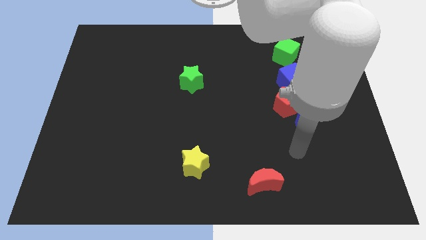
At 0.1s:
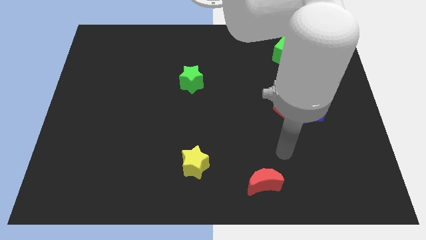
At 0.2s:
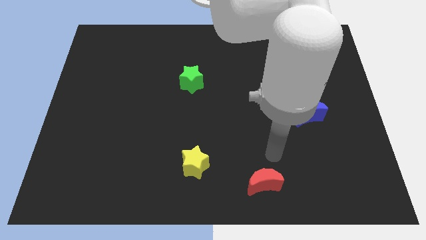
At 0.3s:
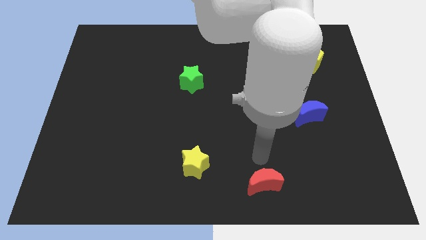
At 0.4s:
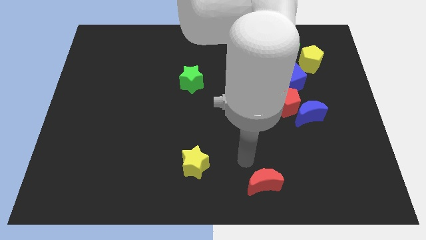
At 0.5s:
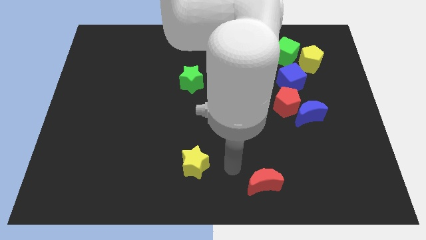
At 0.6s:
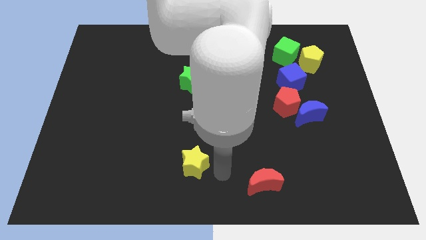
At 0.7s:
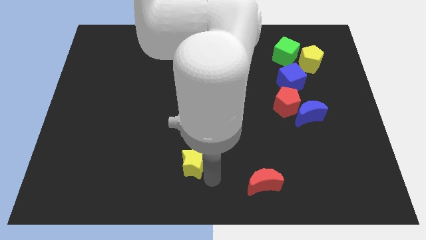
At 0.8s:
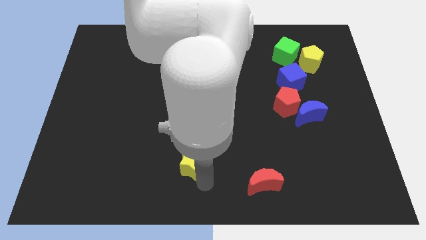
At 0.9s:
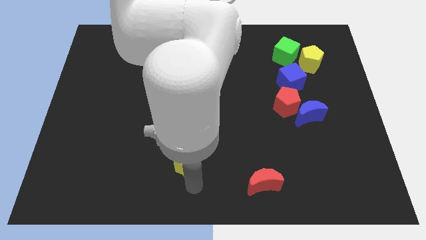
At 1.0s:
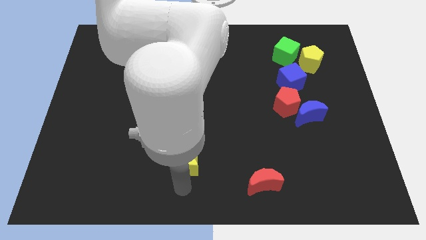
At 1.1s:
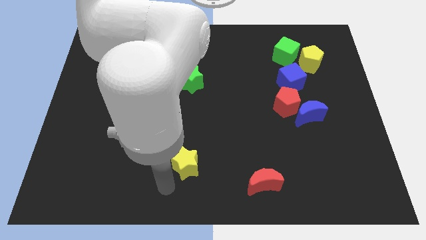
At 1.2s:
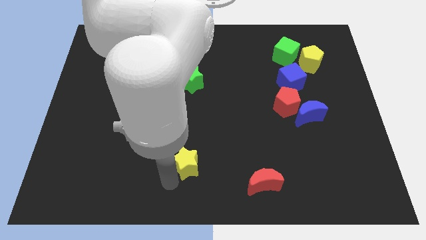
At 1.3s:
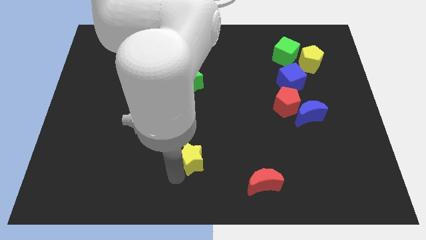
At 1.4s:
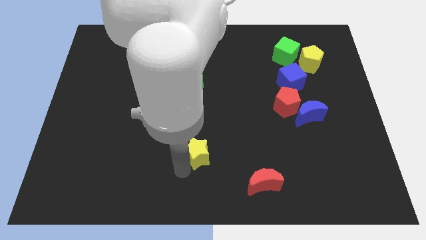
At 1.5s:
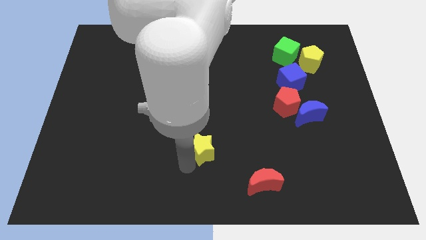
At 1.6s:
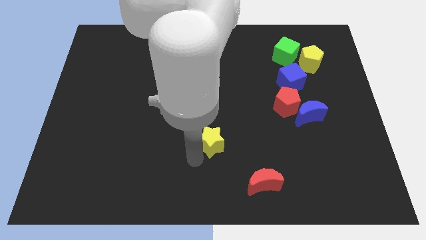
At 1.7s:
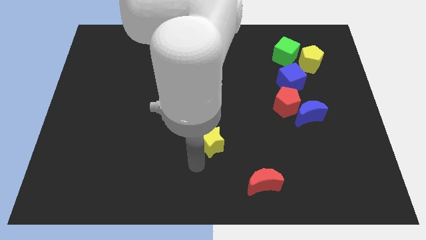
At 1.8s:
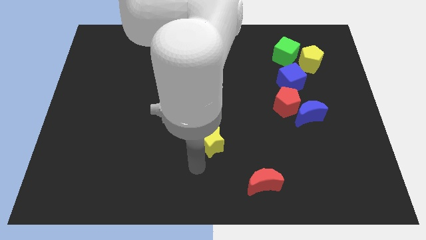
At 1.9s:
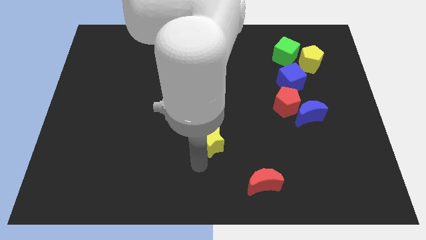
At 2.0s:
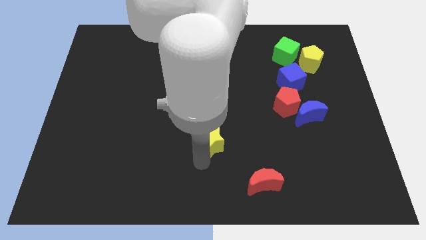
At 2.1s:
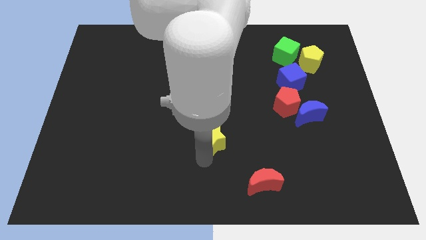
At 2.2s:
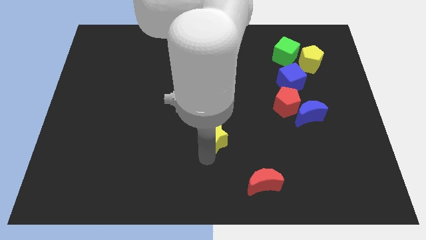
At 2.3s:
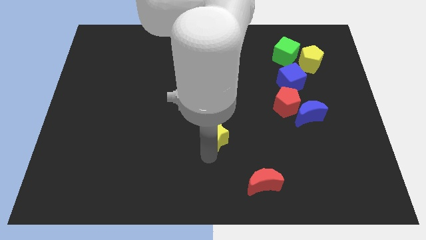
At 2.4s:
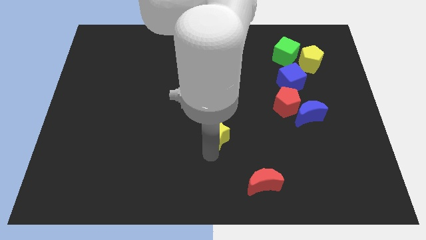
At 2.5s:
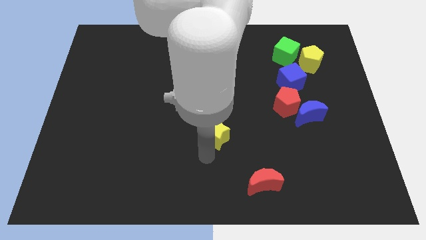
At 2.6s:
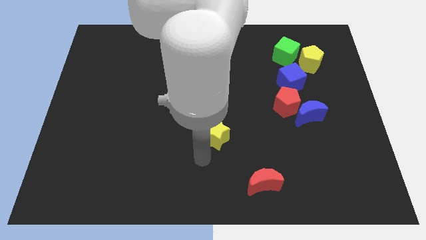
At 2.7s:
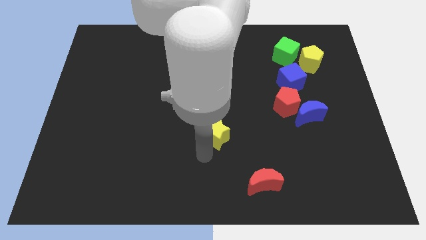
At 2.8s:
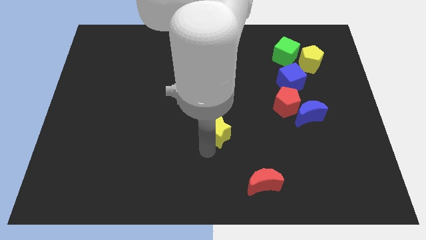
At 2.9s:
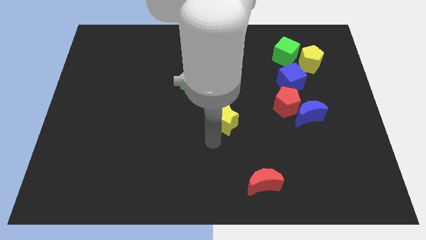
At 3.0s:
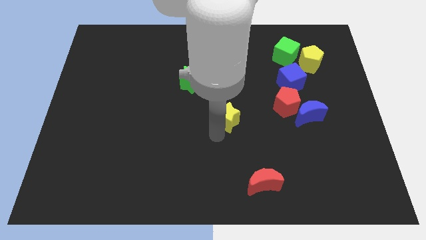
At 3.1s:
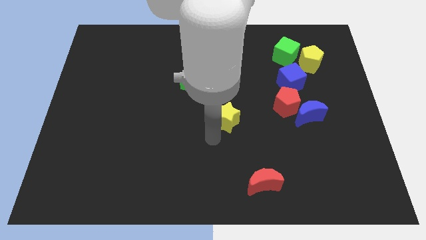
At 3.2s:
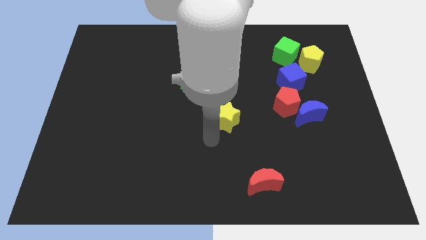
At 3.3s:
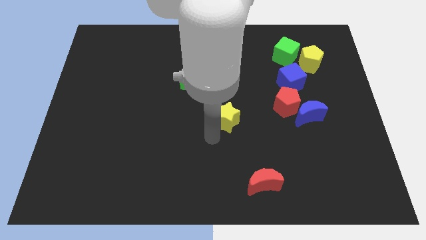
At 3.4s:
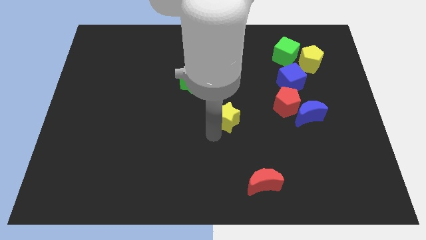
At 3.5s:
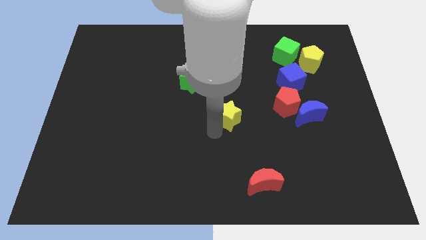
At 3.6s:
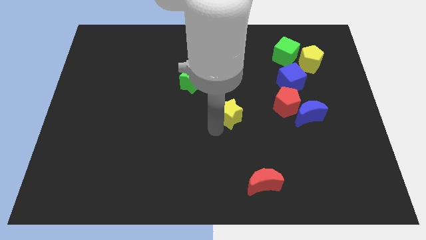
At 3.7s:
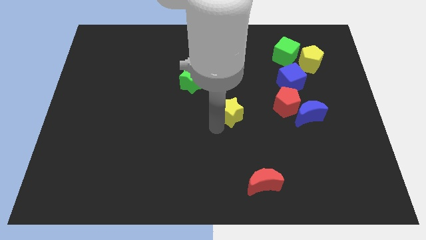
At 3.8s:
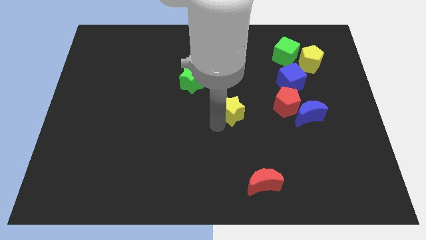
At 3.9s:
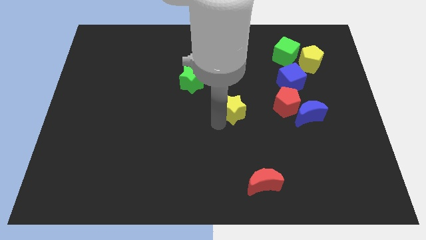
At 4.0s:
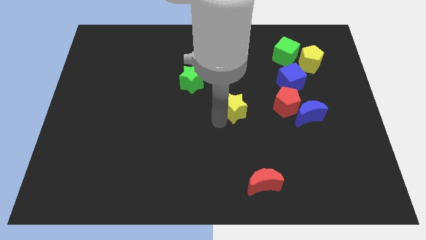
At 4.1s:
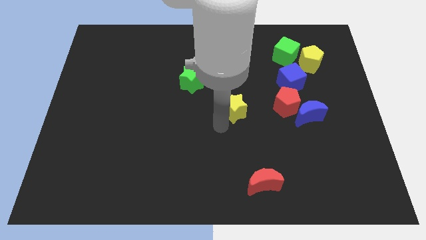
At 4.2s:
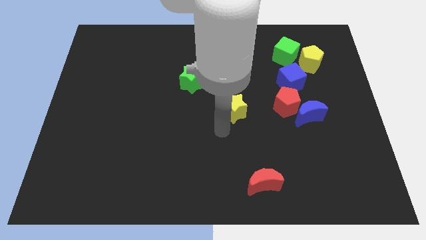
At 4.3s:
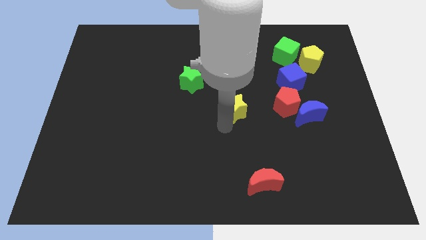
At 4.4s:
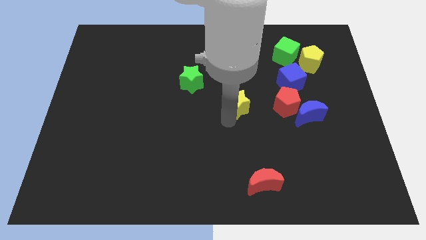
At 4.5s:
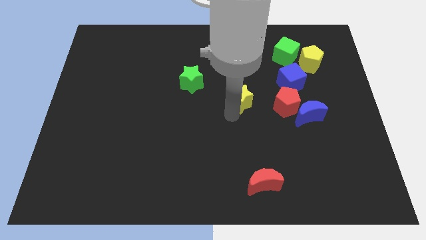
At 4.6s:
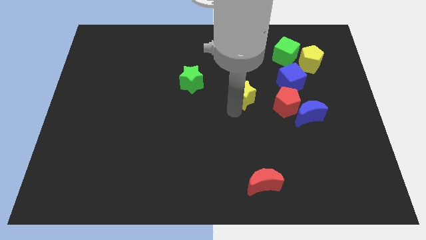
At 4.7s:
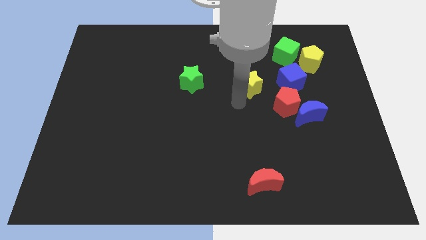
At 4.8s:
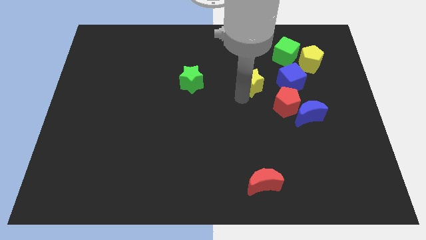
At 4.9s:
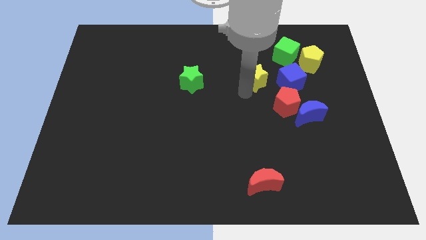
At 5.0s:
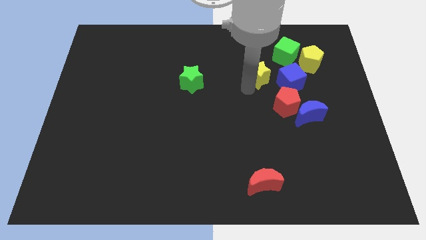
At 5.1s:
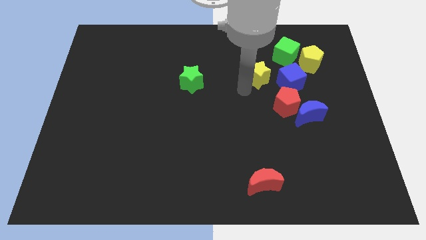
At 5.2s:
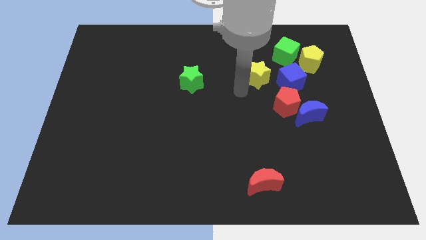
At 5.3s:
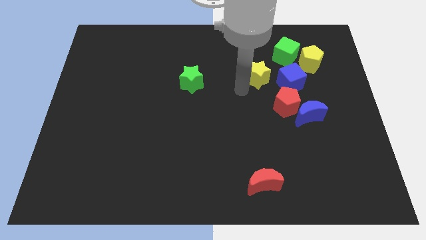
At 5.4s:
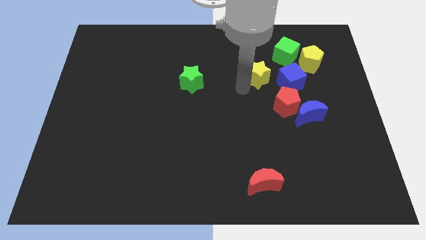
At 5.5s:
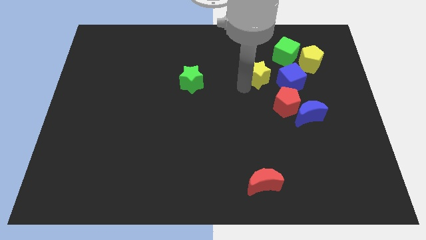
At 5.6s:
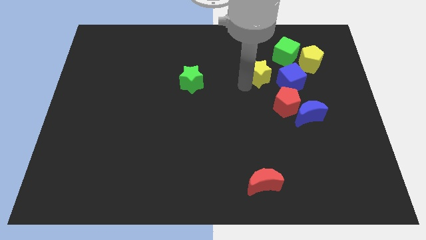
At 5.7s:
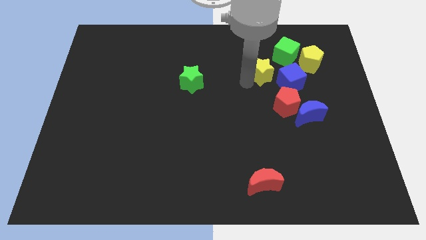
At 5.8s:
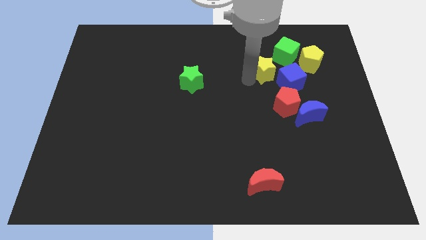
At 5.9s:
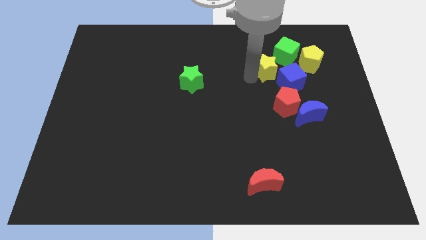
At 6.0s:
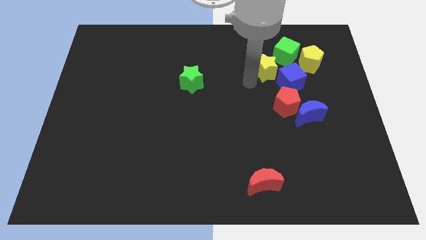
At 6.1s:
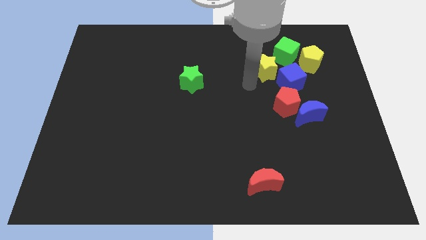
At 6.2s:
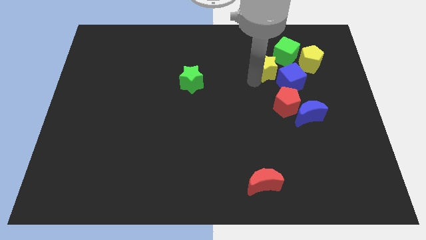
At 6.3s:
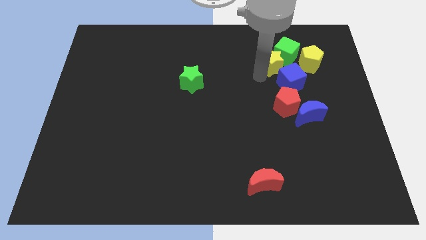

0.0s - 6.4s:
move the yellow star towards the green cube

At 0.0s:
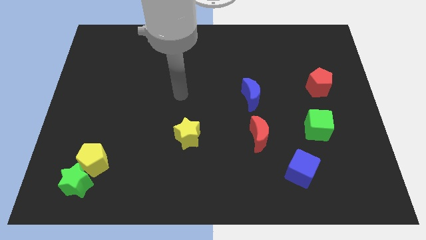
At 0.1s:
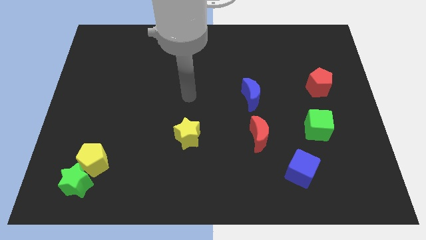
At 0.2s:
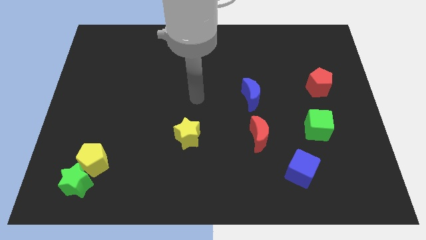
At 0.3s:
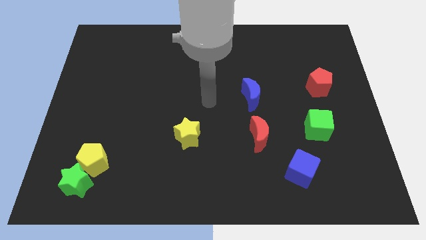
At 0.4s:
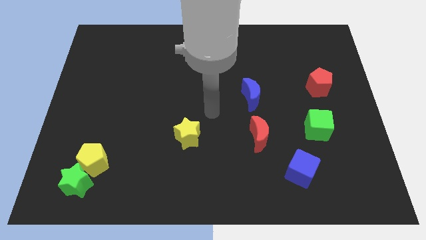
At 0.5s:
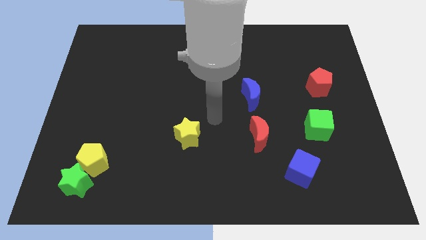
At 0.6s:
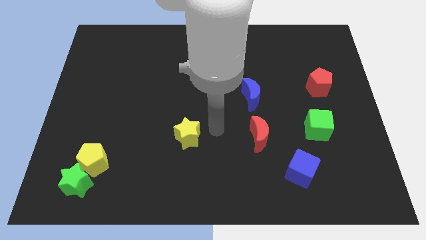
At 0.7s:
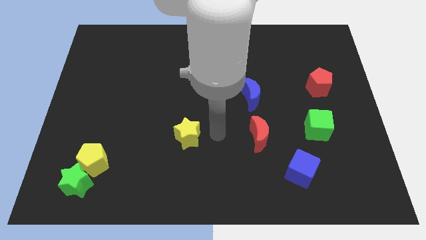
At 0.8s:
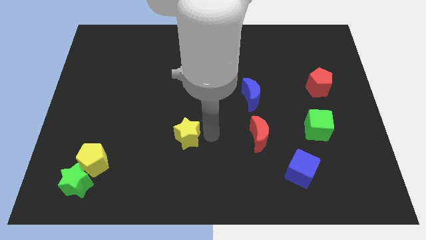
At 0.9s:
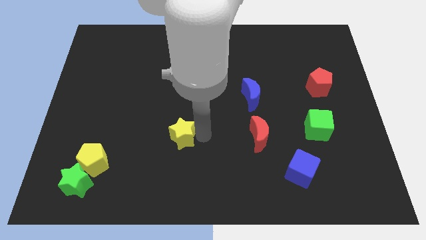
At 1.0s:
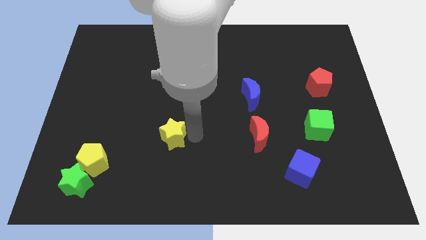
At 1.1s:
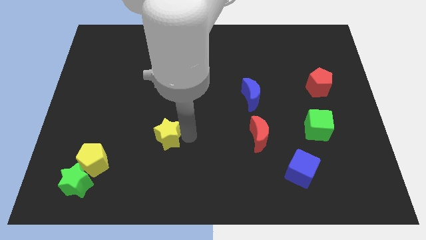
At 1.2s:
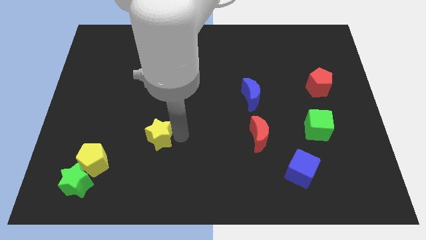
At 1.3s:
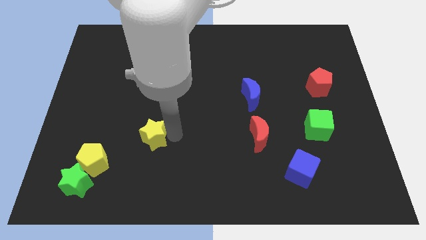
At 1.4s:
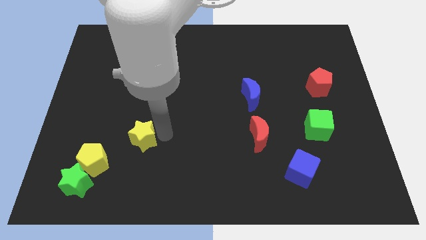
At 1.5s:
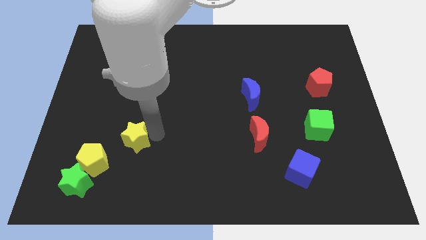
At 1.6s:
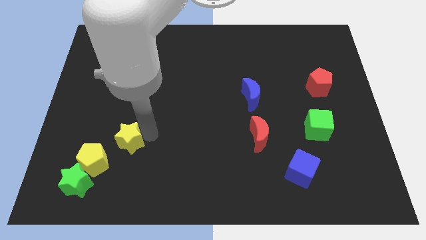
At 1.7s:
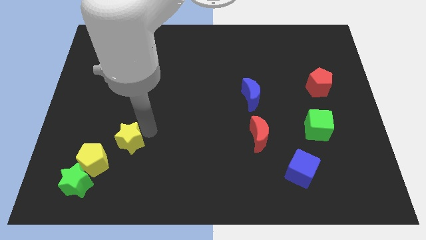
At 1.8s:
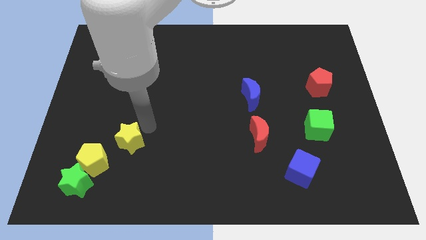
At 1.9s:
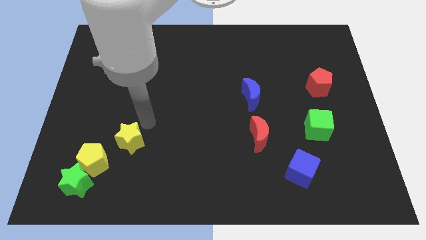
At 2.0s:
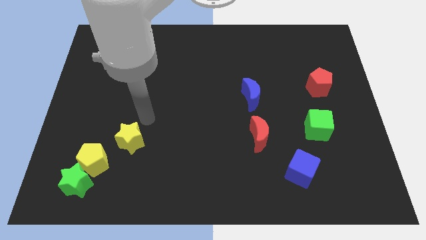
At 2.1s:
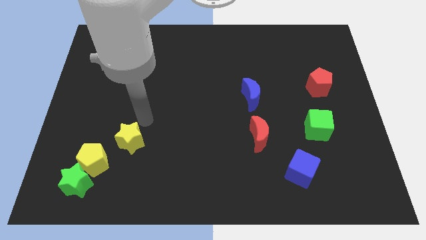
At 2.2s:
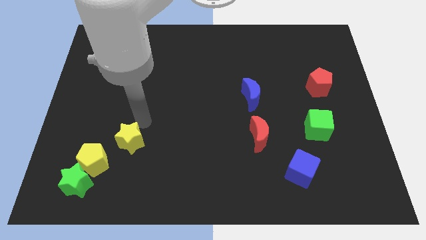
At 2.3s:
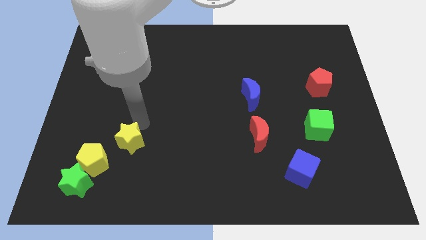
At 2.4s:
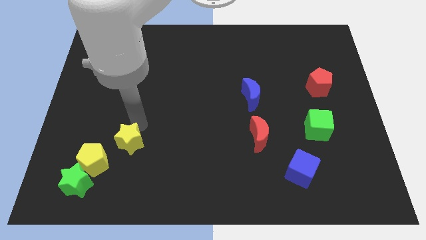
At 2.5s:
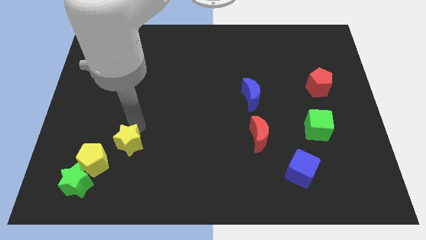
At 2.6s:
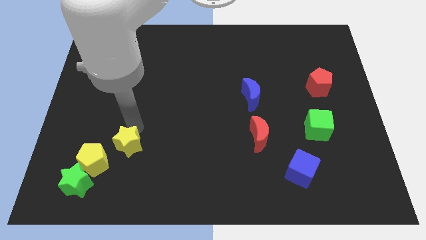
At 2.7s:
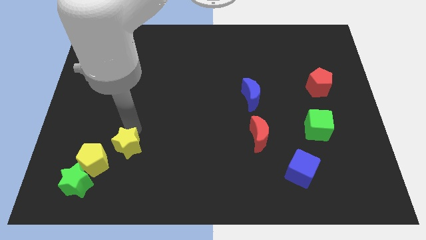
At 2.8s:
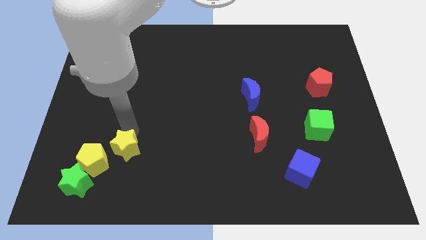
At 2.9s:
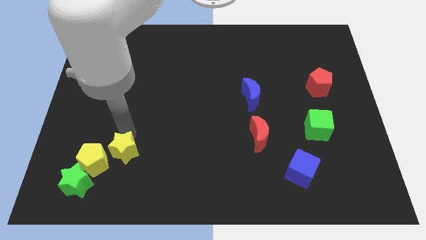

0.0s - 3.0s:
slide the yellow star next to the yellow pentagon
